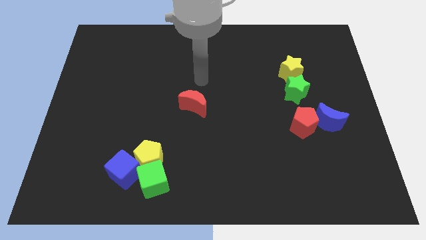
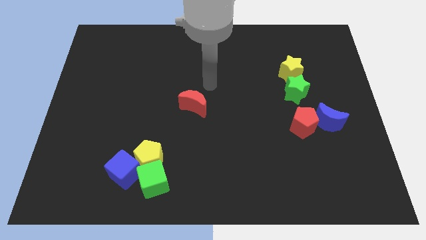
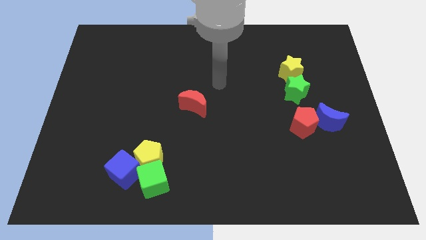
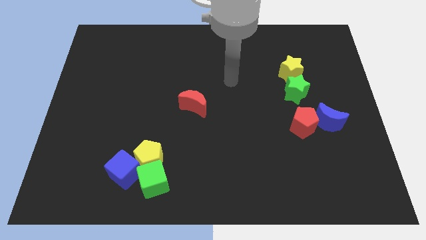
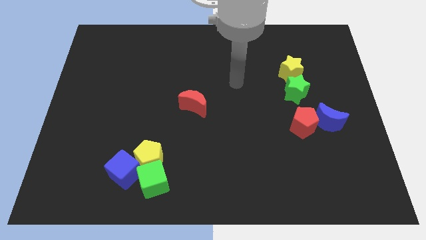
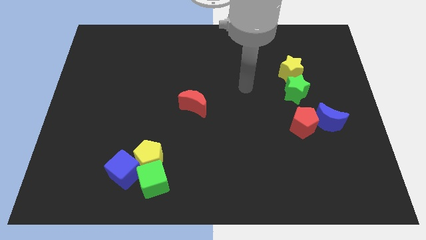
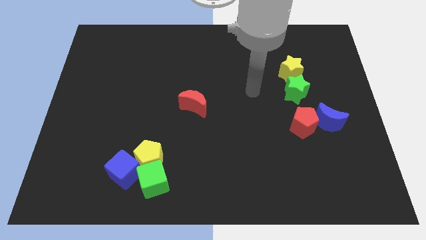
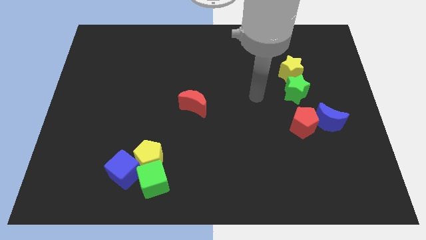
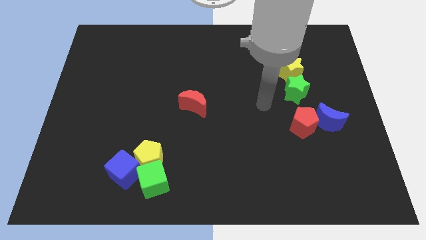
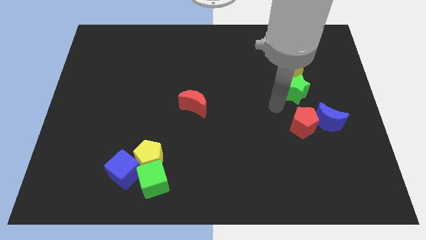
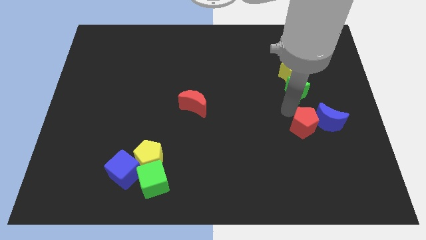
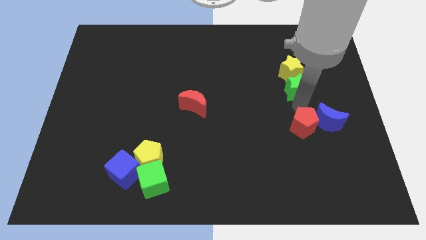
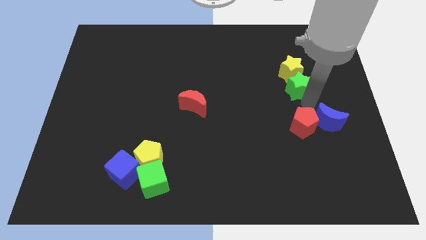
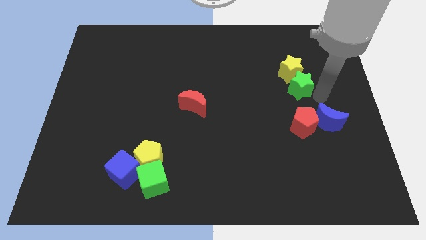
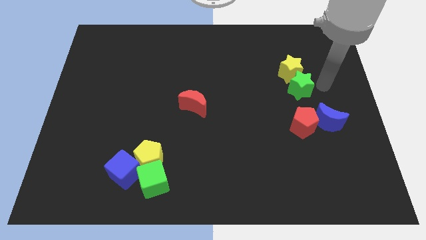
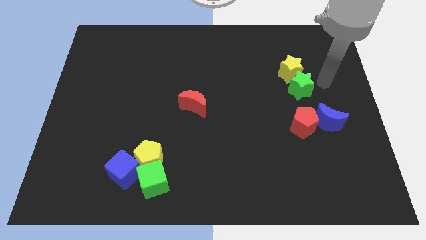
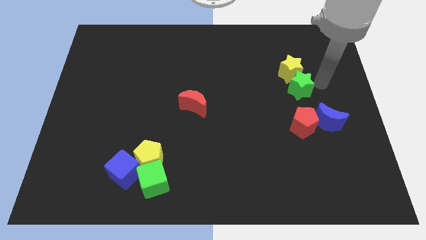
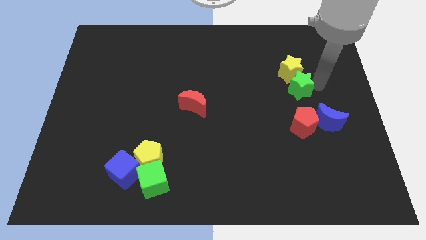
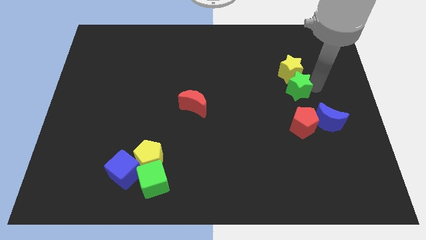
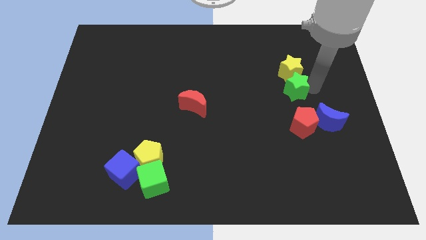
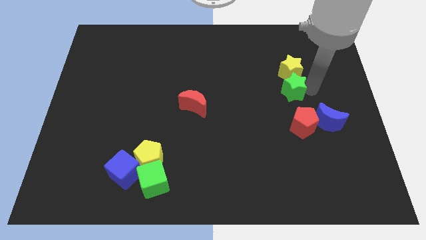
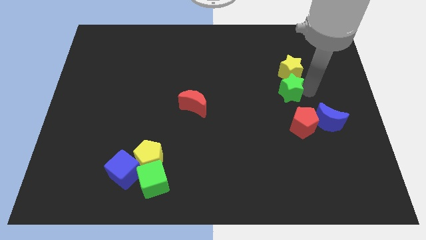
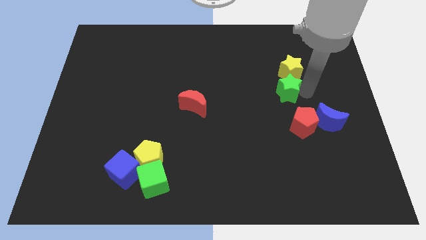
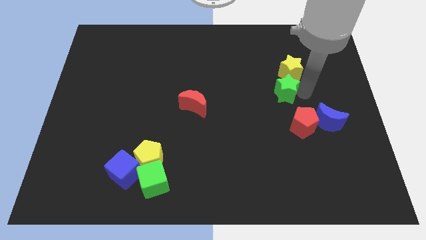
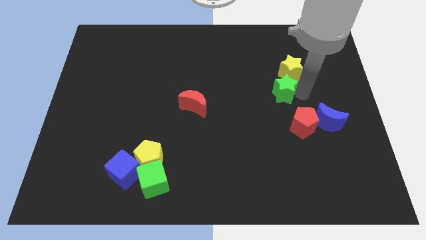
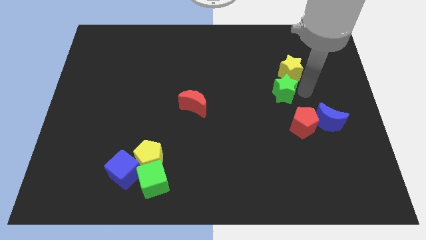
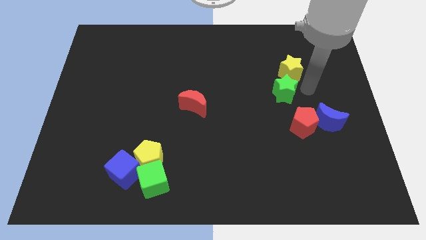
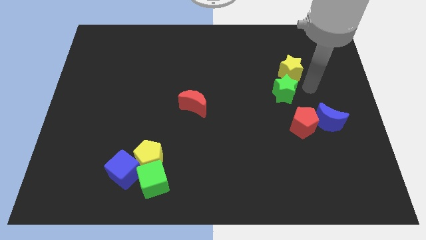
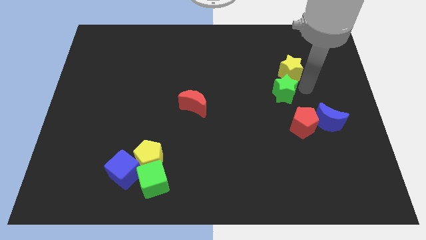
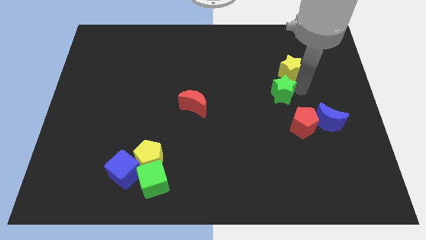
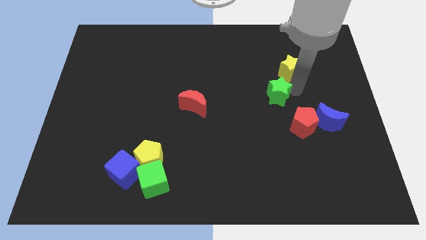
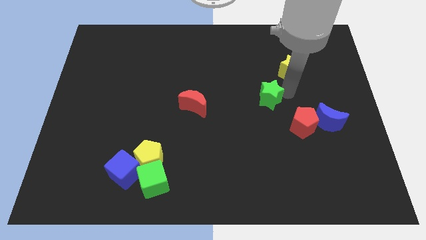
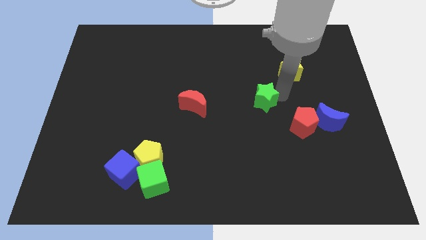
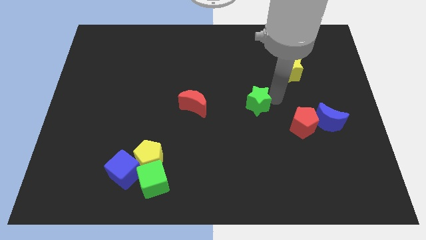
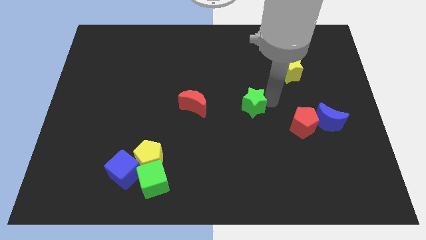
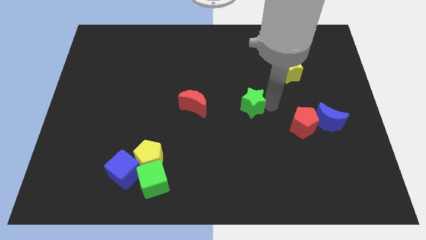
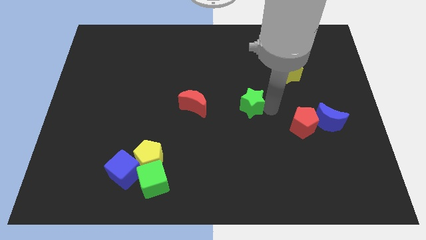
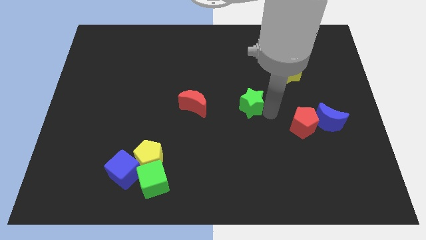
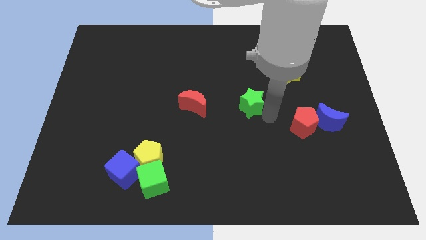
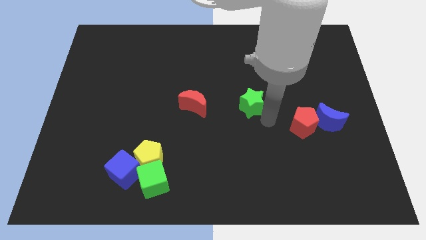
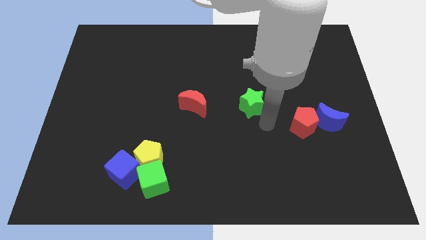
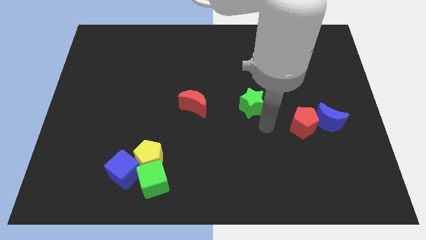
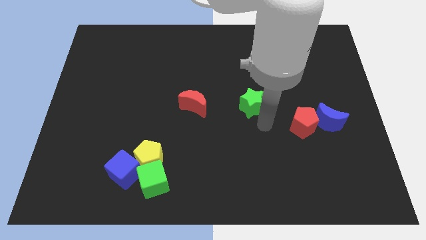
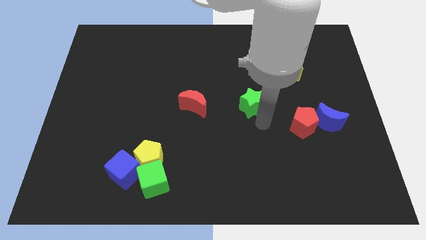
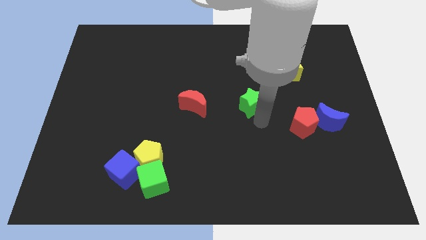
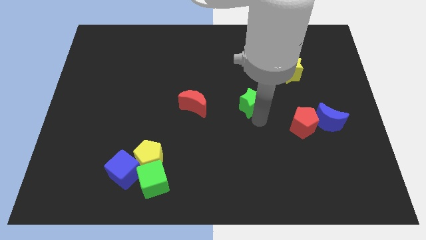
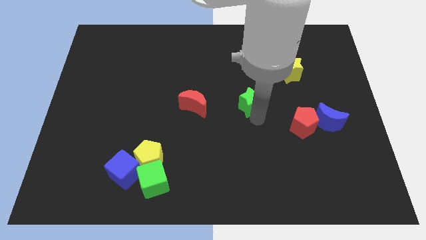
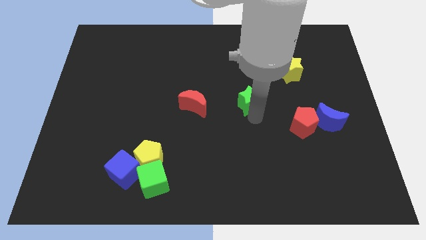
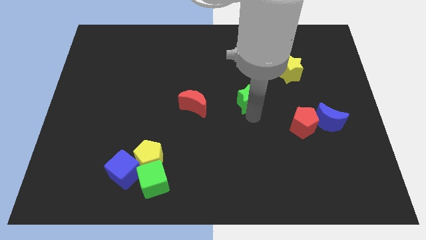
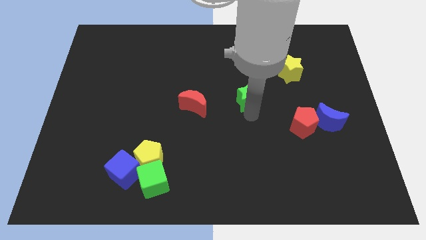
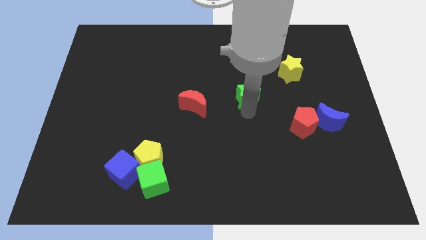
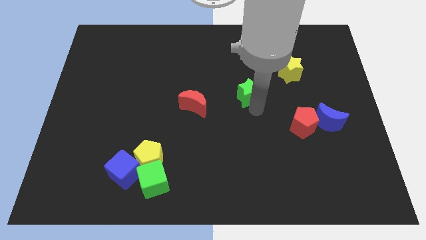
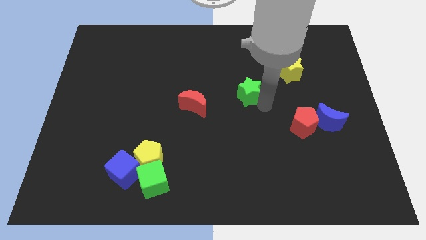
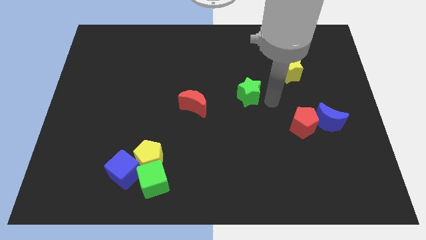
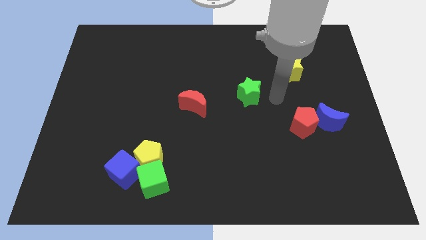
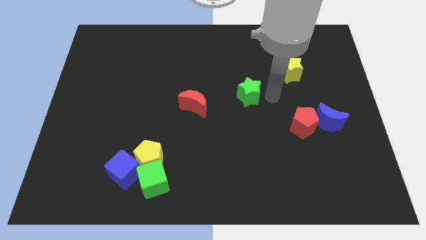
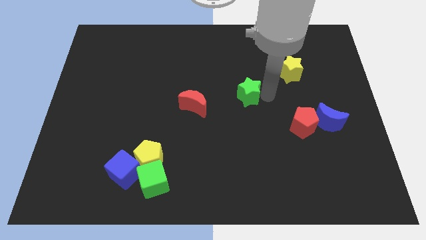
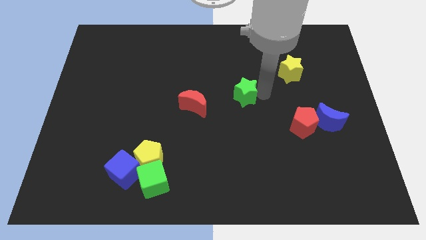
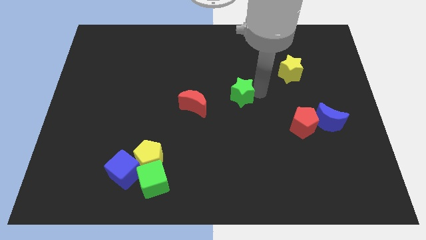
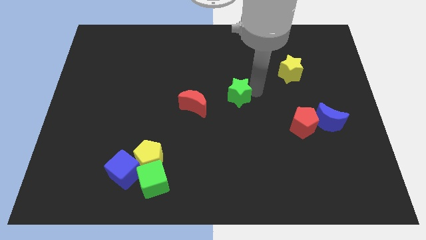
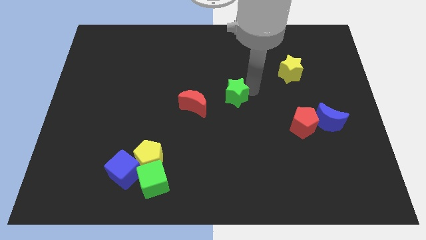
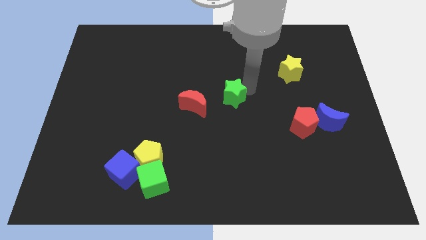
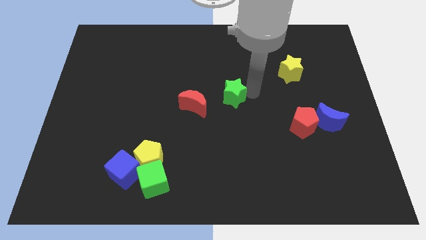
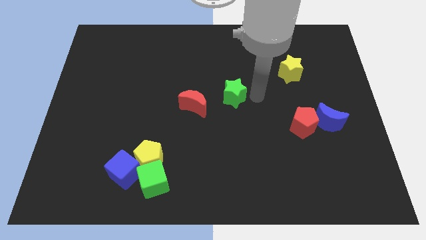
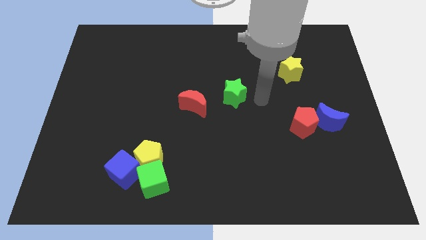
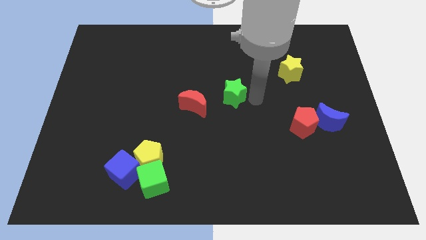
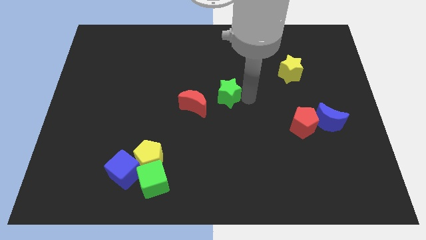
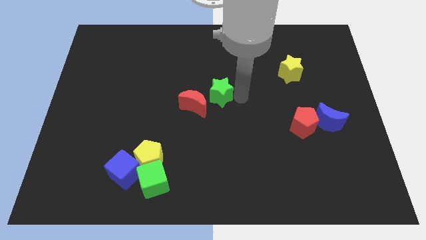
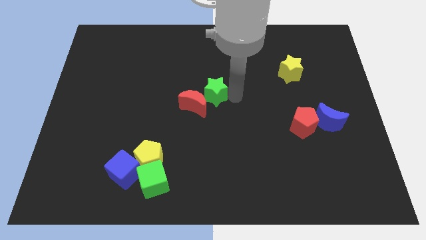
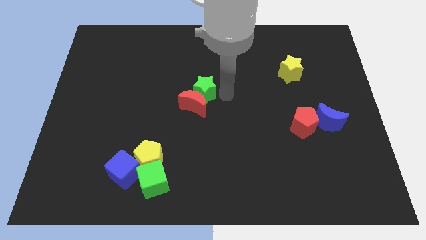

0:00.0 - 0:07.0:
push the green star to the left

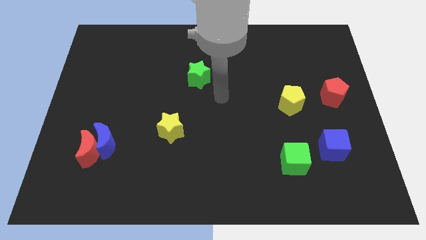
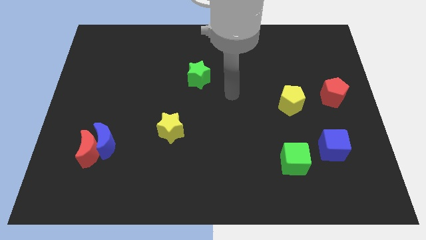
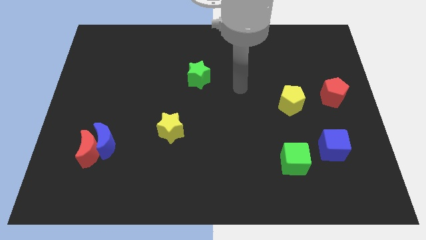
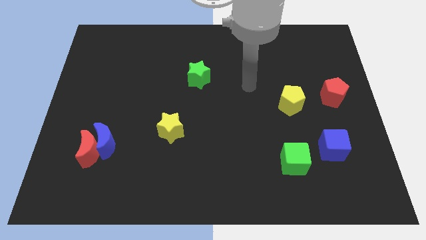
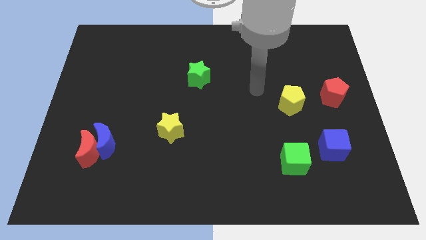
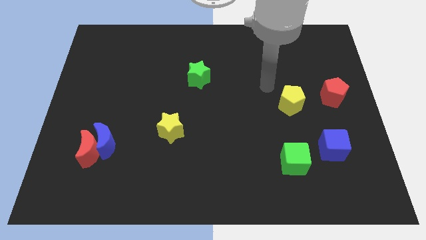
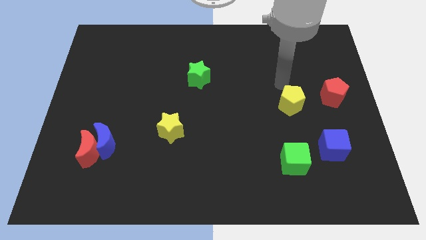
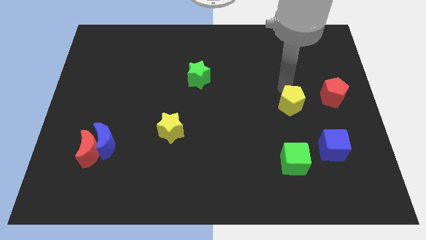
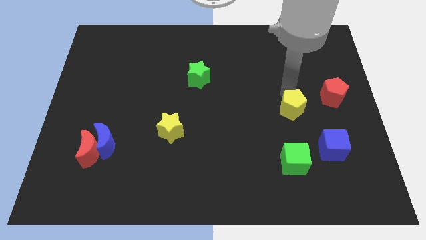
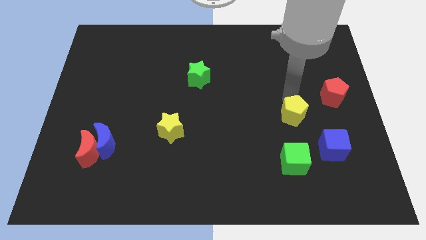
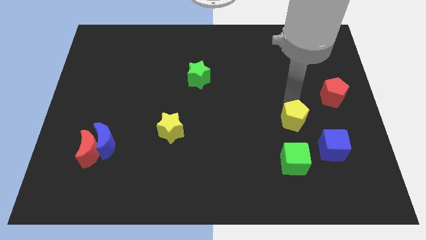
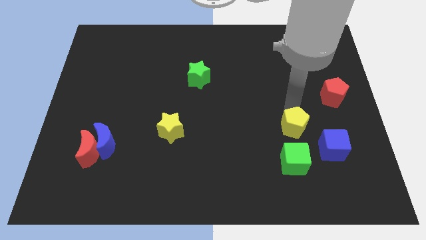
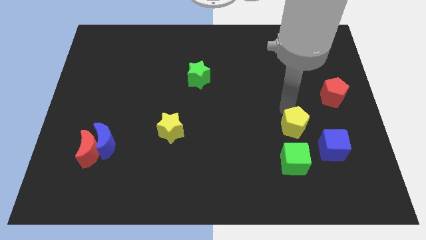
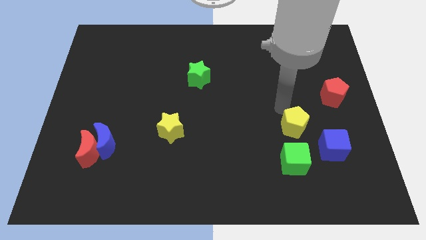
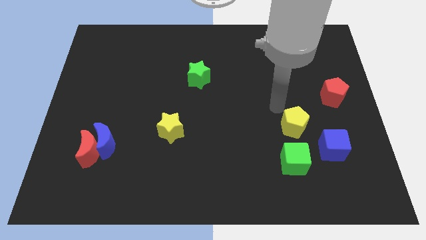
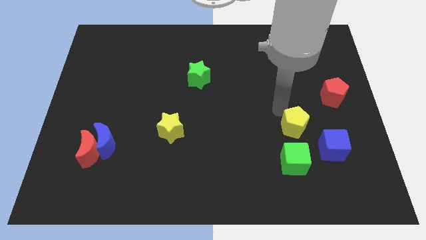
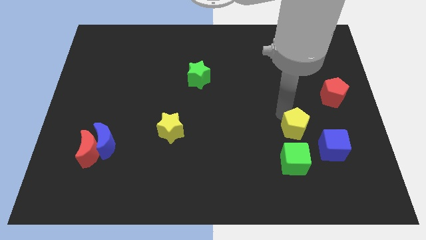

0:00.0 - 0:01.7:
move the yellow pentagon down a little
